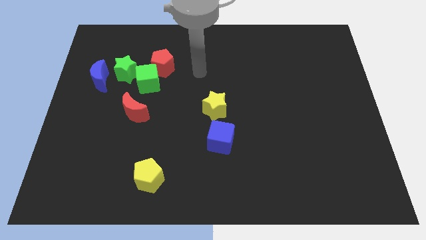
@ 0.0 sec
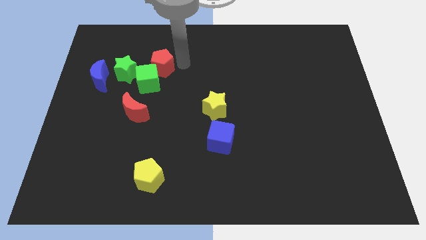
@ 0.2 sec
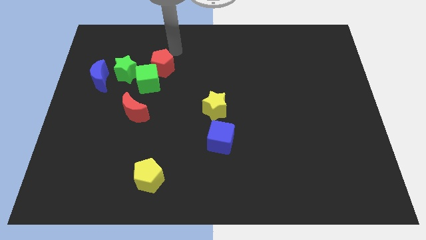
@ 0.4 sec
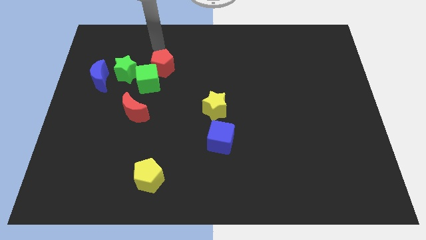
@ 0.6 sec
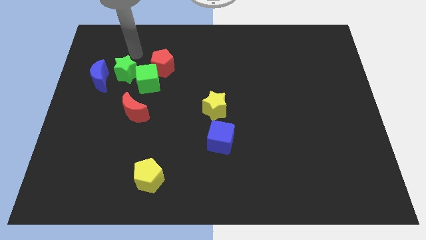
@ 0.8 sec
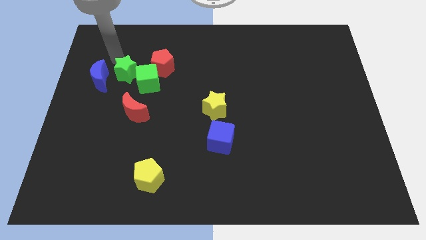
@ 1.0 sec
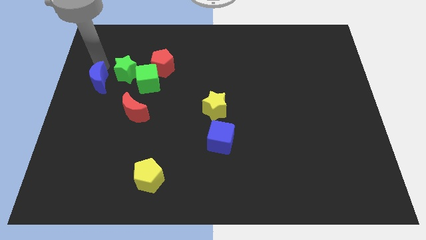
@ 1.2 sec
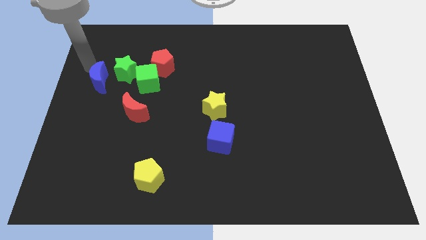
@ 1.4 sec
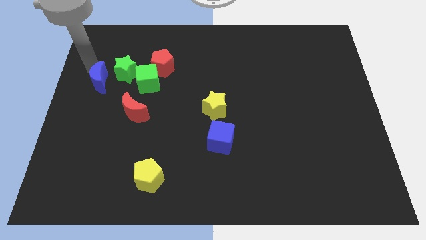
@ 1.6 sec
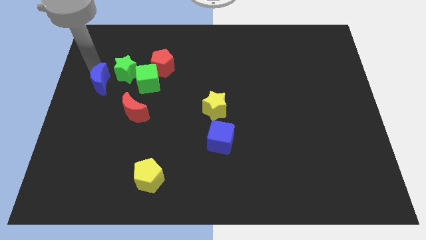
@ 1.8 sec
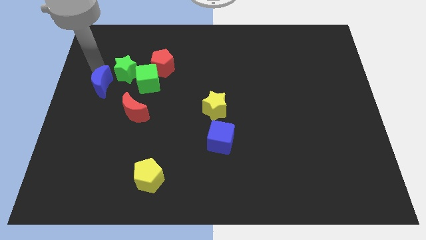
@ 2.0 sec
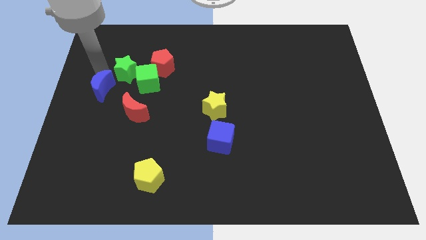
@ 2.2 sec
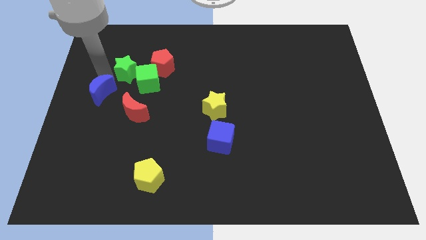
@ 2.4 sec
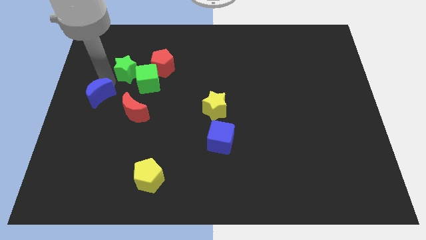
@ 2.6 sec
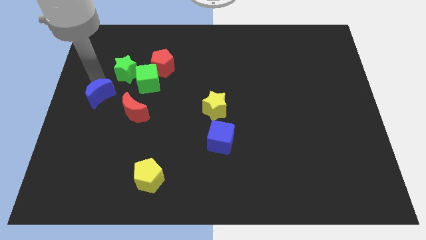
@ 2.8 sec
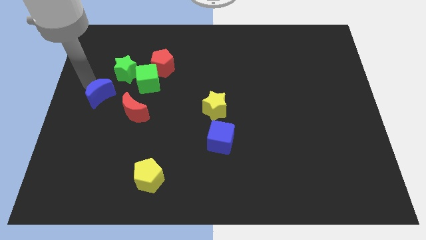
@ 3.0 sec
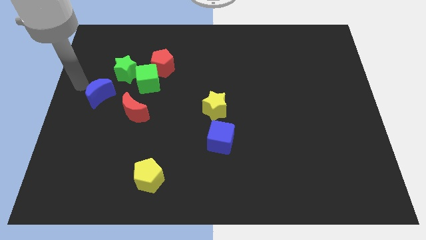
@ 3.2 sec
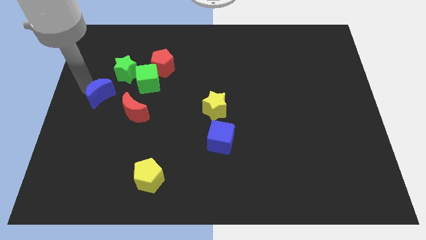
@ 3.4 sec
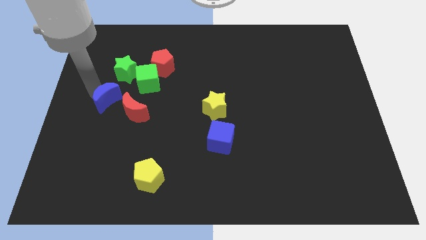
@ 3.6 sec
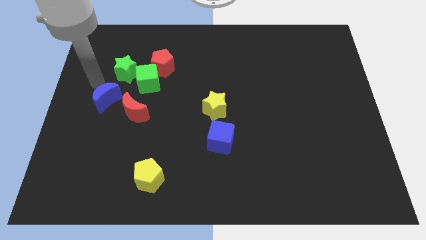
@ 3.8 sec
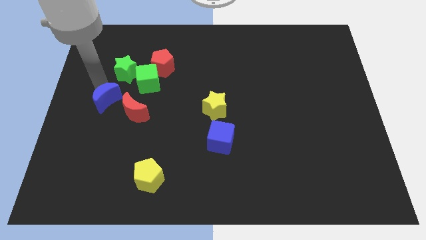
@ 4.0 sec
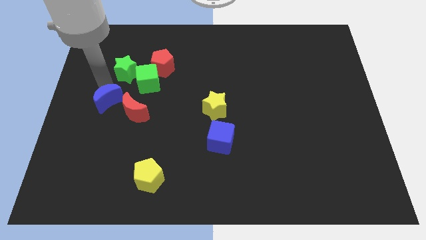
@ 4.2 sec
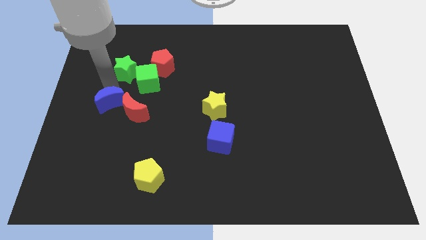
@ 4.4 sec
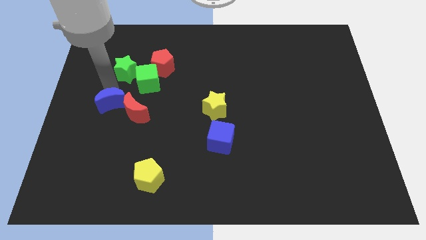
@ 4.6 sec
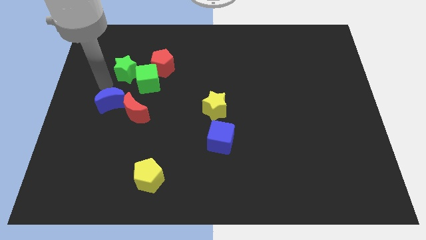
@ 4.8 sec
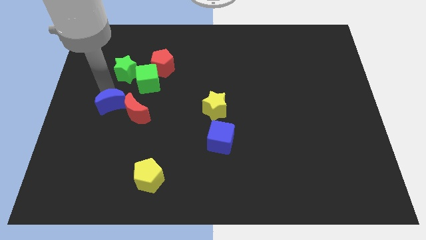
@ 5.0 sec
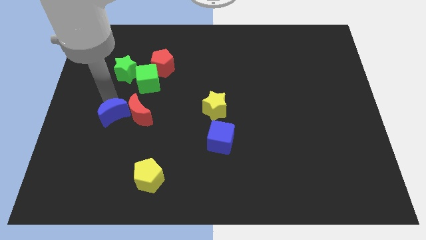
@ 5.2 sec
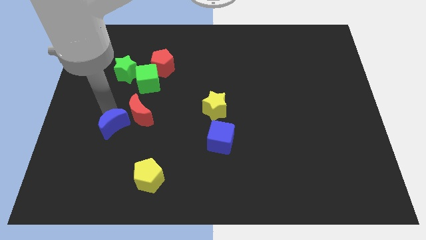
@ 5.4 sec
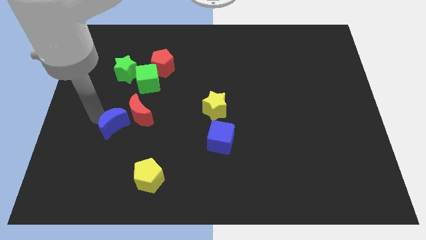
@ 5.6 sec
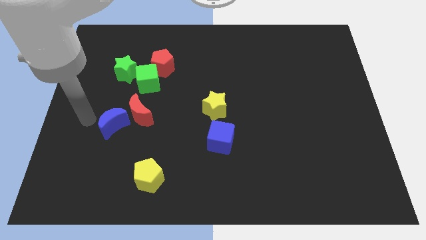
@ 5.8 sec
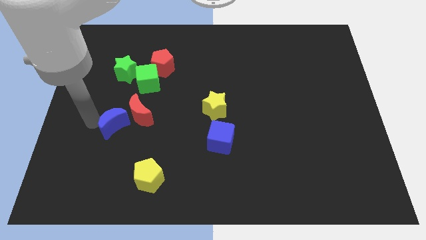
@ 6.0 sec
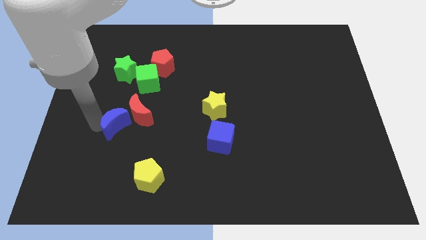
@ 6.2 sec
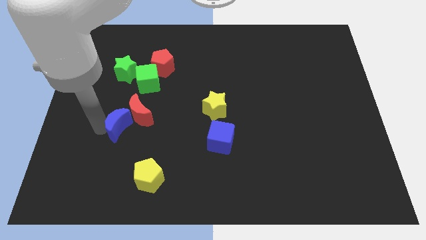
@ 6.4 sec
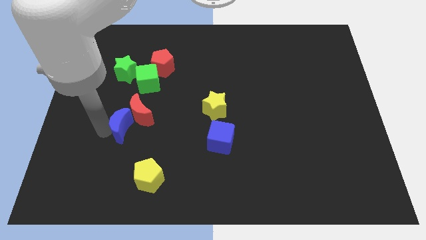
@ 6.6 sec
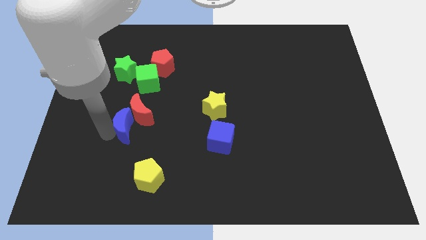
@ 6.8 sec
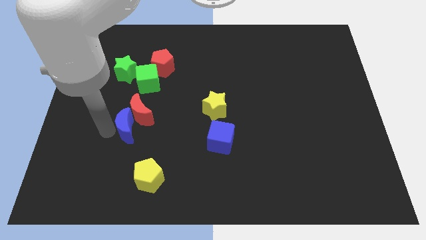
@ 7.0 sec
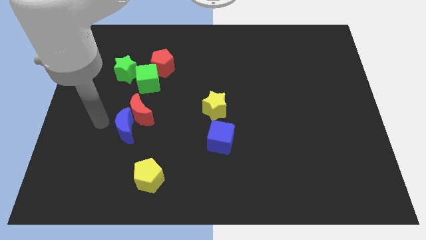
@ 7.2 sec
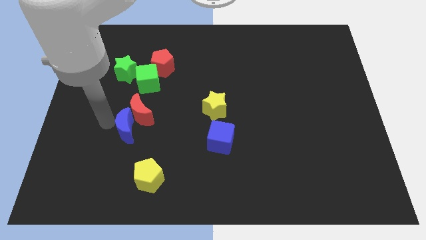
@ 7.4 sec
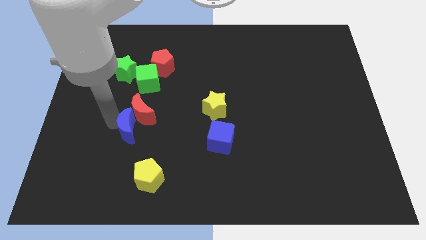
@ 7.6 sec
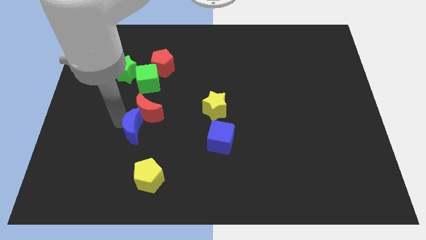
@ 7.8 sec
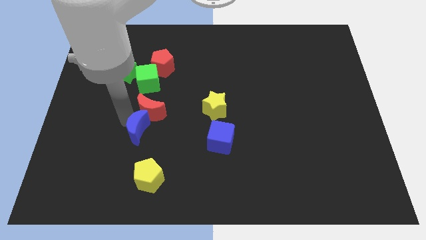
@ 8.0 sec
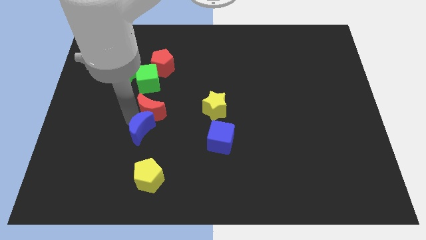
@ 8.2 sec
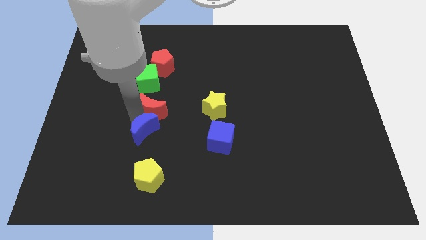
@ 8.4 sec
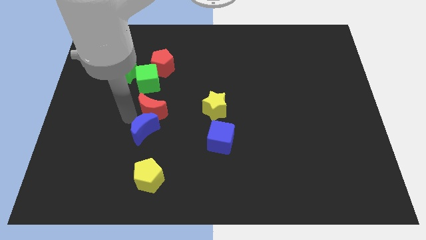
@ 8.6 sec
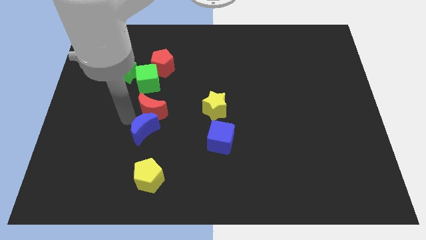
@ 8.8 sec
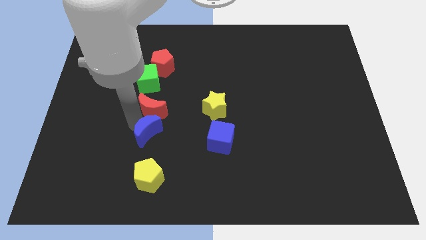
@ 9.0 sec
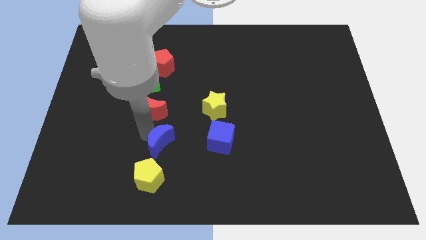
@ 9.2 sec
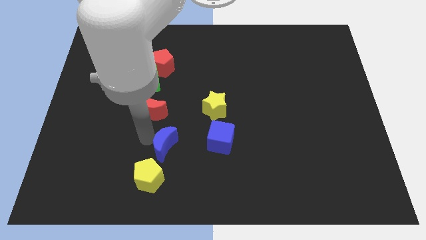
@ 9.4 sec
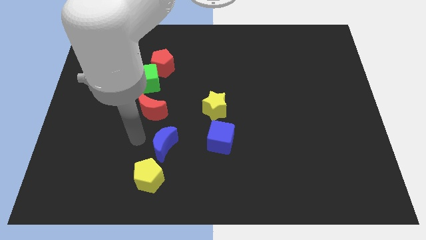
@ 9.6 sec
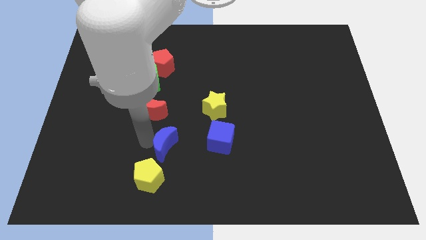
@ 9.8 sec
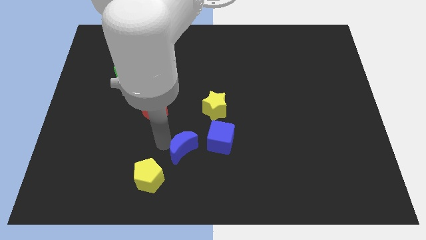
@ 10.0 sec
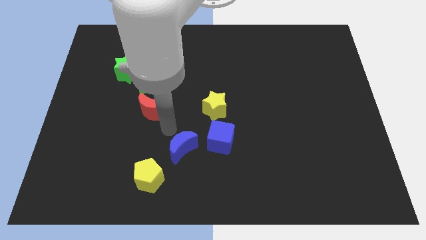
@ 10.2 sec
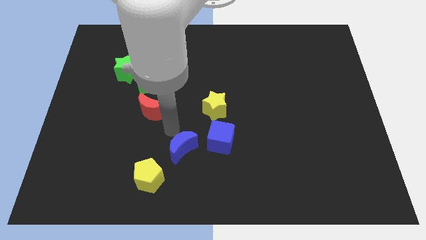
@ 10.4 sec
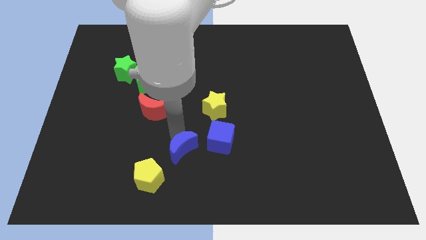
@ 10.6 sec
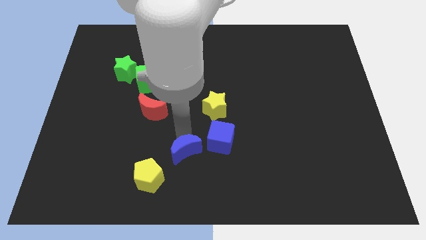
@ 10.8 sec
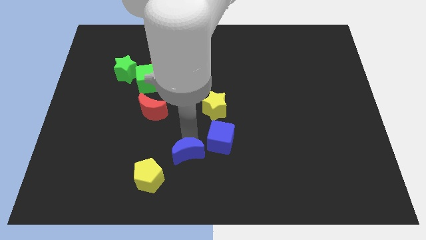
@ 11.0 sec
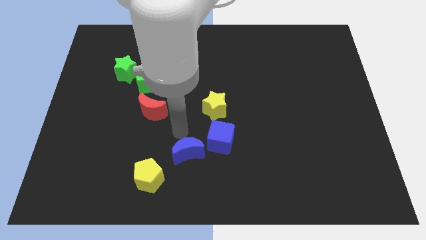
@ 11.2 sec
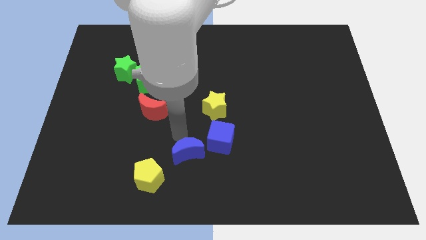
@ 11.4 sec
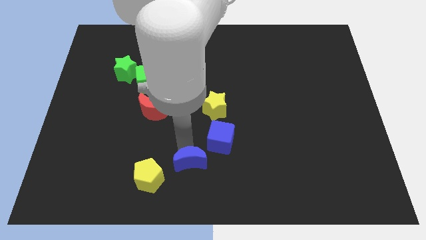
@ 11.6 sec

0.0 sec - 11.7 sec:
slide the blue moon to the right side of the yellow pentagon

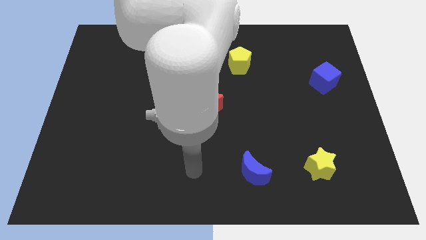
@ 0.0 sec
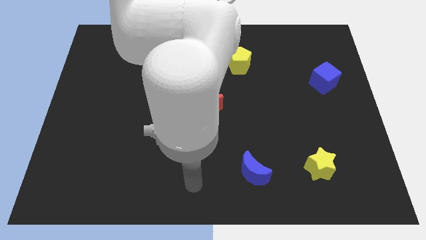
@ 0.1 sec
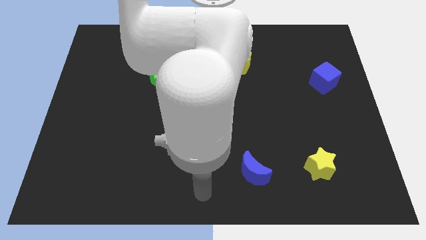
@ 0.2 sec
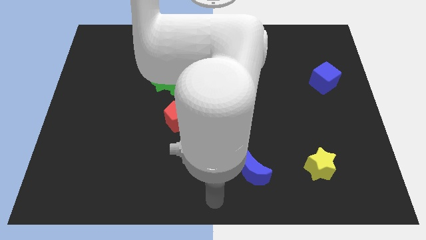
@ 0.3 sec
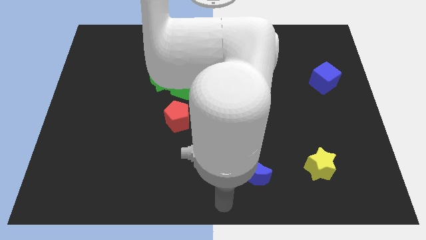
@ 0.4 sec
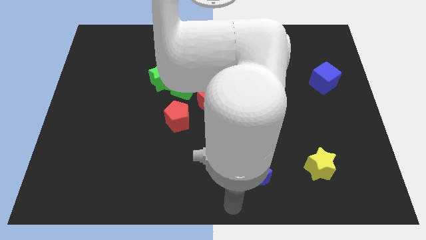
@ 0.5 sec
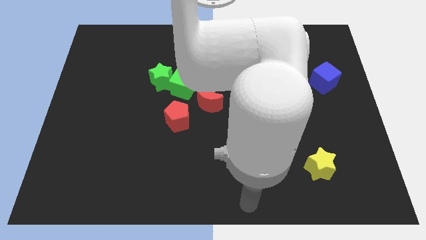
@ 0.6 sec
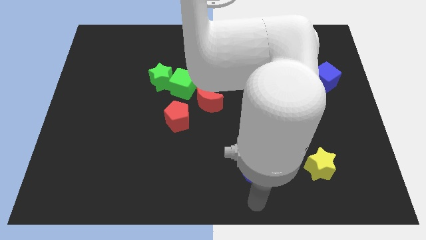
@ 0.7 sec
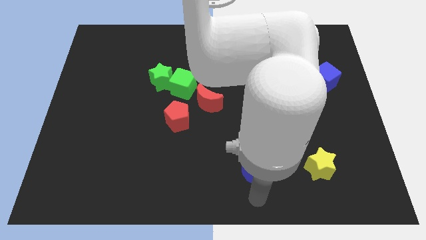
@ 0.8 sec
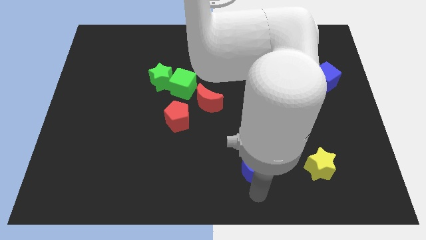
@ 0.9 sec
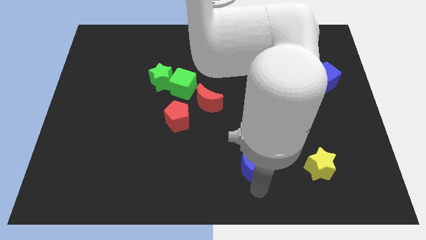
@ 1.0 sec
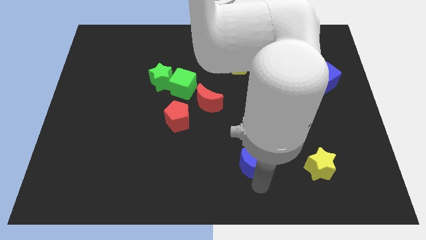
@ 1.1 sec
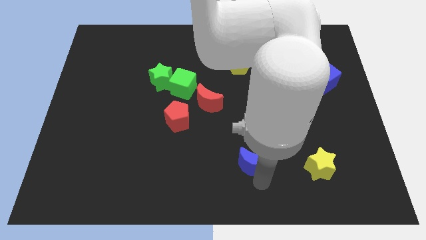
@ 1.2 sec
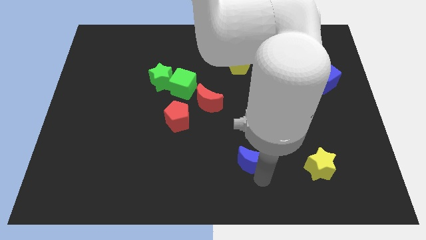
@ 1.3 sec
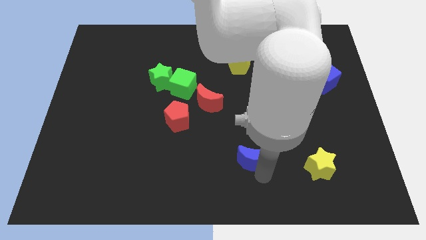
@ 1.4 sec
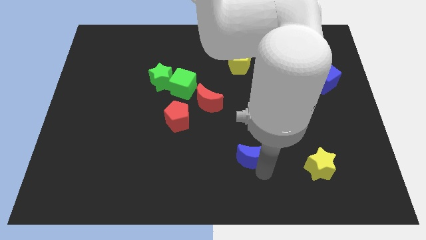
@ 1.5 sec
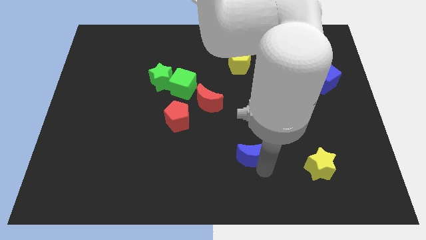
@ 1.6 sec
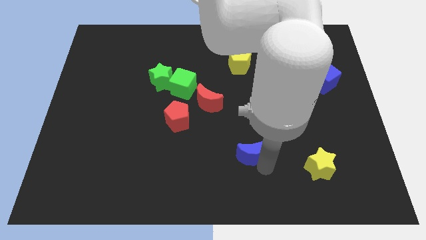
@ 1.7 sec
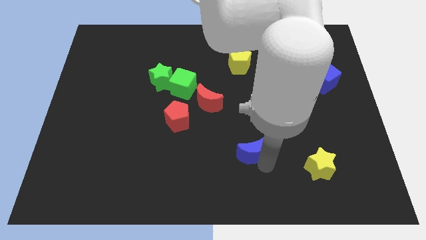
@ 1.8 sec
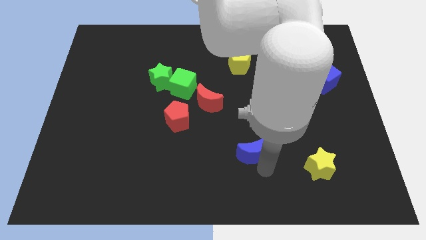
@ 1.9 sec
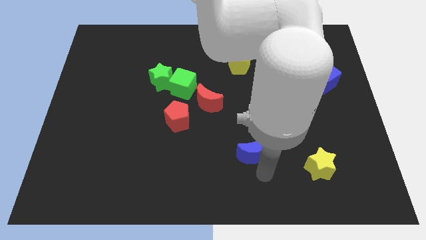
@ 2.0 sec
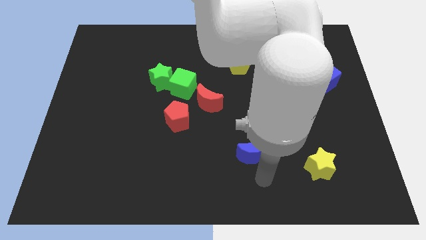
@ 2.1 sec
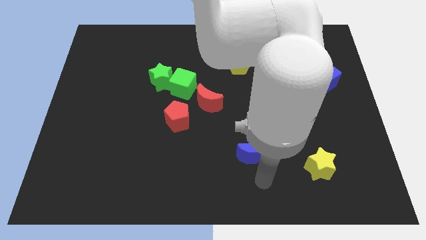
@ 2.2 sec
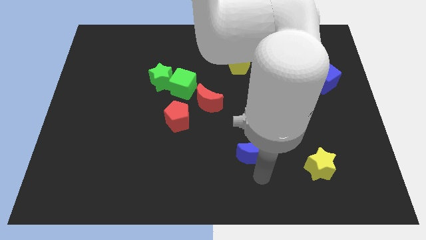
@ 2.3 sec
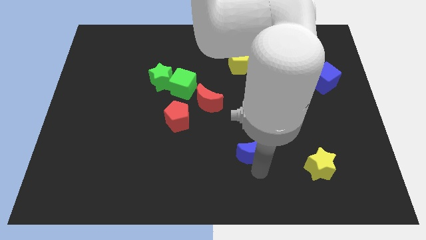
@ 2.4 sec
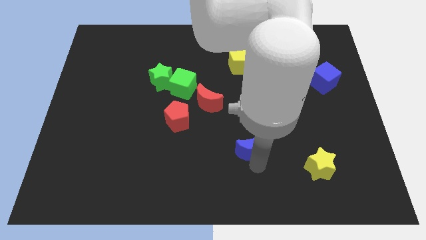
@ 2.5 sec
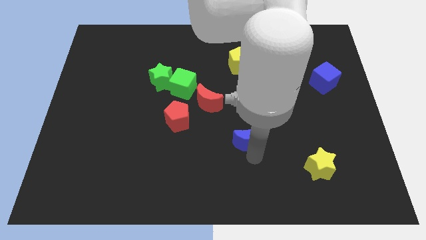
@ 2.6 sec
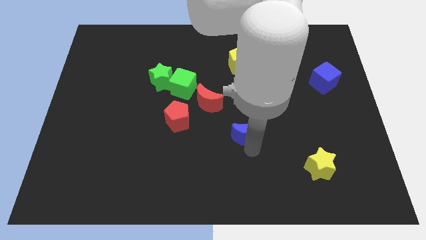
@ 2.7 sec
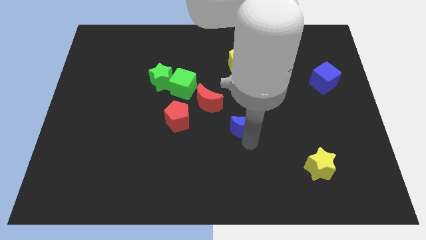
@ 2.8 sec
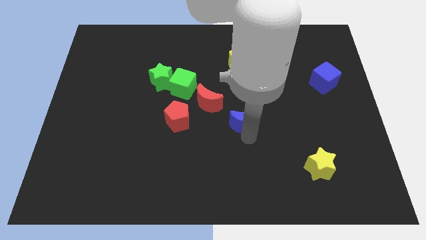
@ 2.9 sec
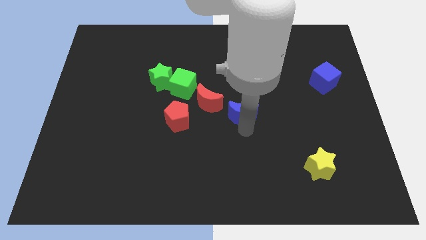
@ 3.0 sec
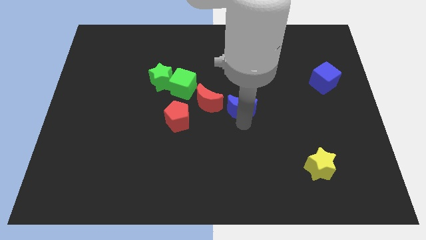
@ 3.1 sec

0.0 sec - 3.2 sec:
push the blue moon to the bottom of the yellow pentagon
